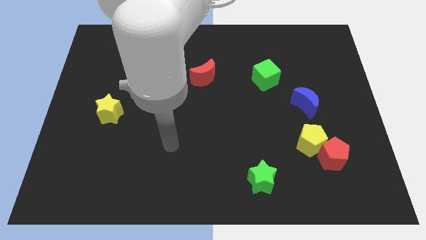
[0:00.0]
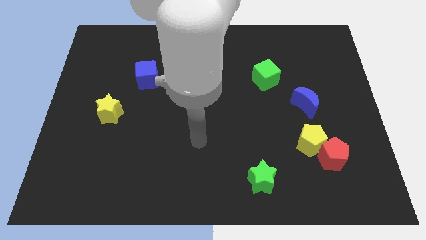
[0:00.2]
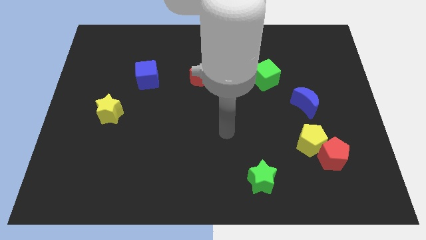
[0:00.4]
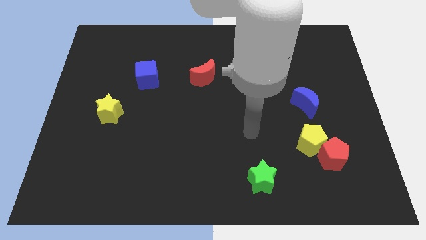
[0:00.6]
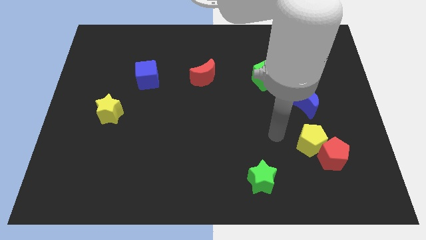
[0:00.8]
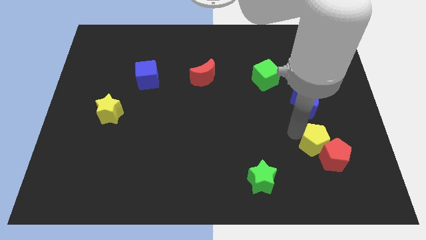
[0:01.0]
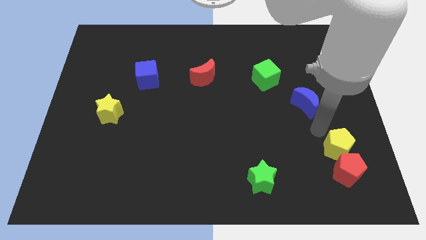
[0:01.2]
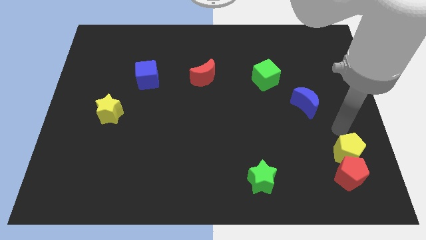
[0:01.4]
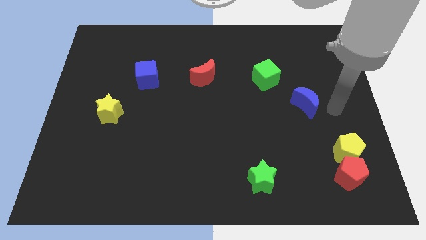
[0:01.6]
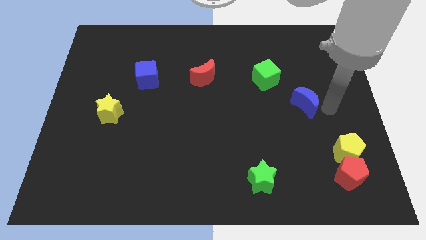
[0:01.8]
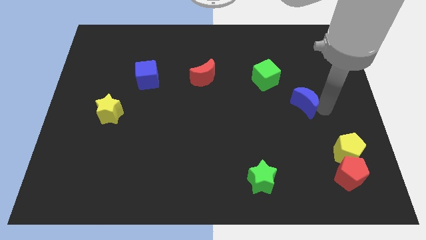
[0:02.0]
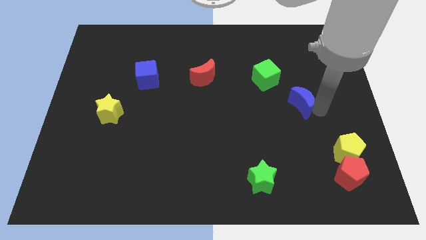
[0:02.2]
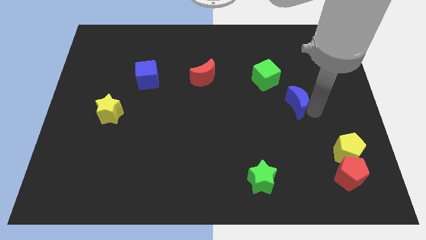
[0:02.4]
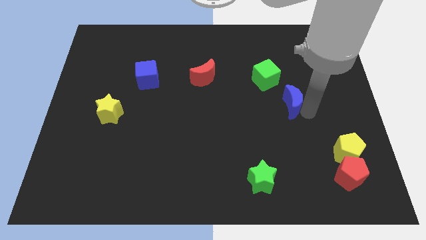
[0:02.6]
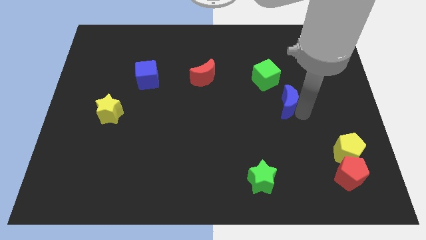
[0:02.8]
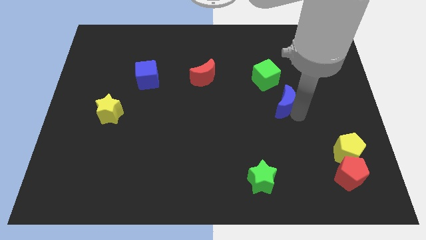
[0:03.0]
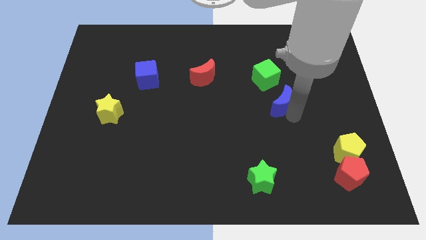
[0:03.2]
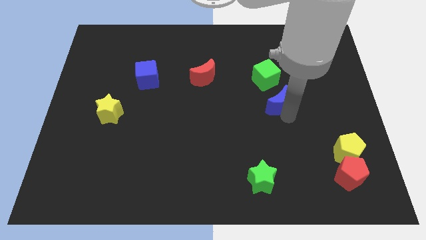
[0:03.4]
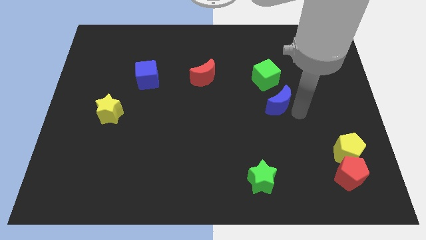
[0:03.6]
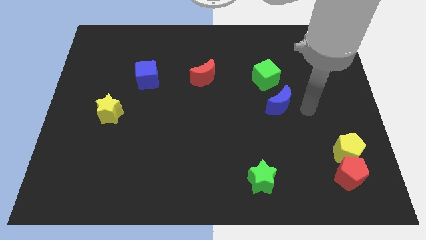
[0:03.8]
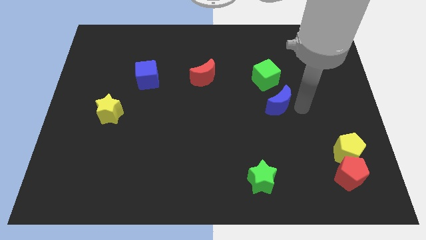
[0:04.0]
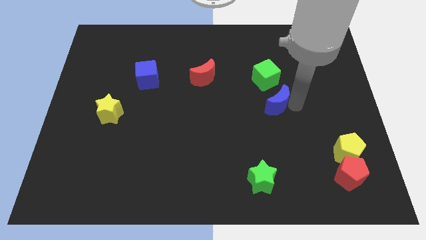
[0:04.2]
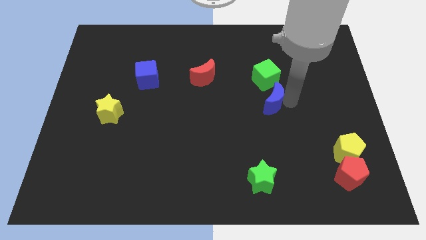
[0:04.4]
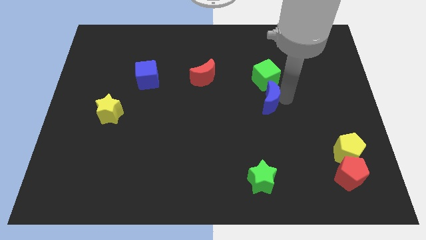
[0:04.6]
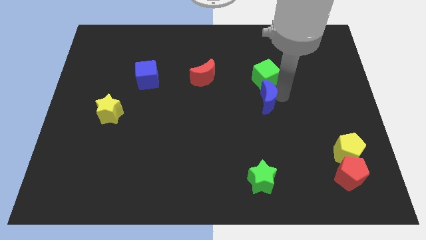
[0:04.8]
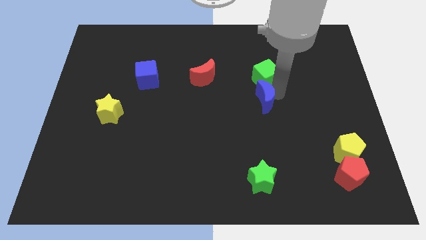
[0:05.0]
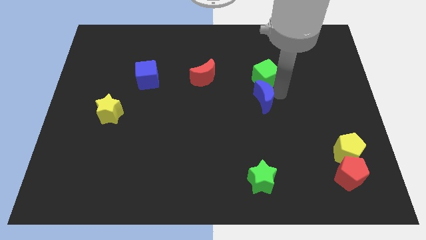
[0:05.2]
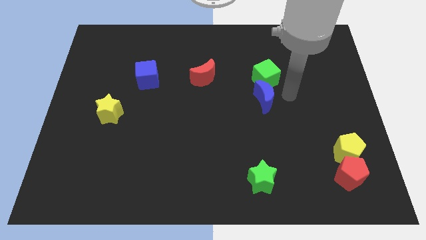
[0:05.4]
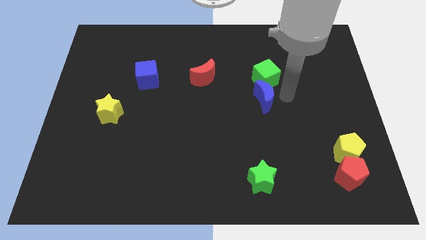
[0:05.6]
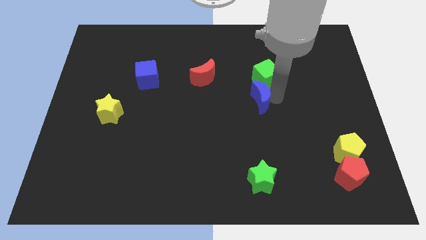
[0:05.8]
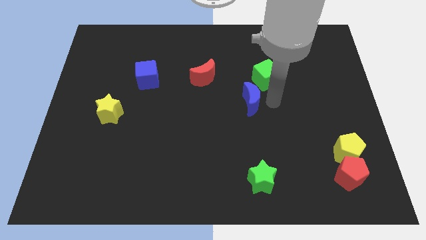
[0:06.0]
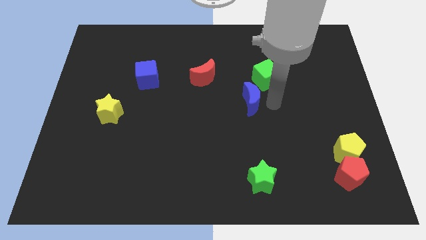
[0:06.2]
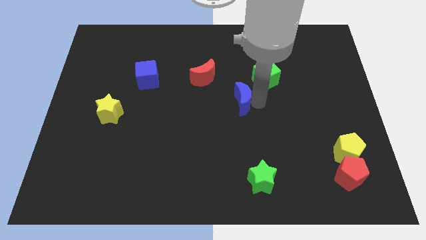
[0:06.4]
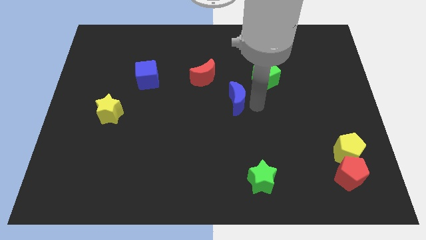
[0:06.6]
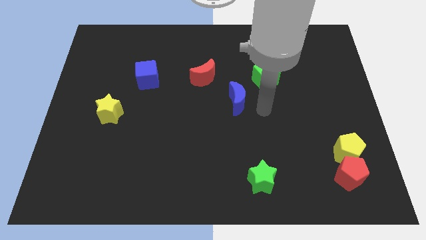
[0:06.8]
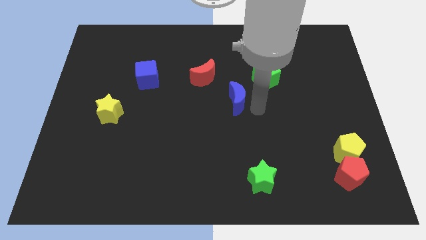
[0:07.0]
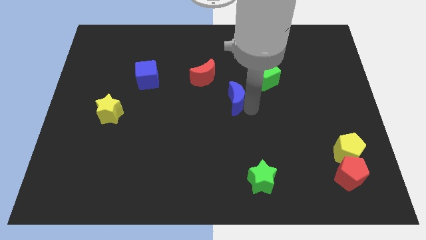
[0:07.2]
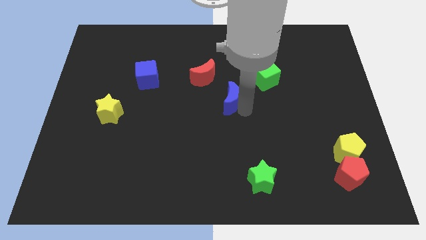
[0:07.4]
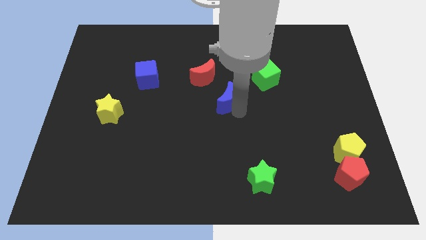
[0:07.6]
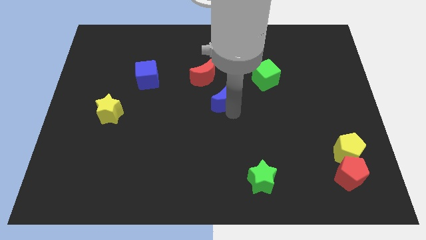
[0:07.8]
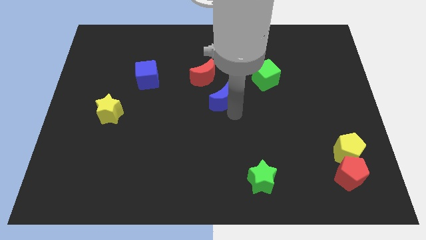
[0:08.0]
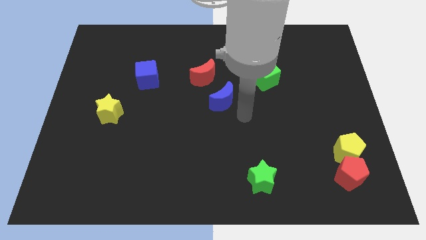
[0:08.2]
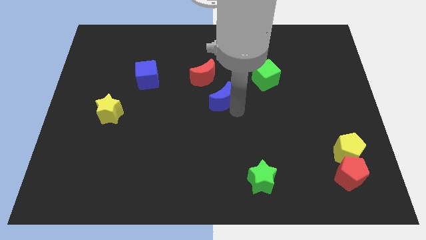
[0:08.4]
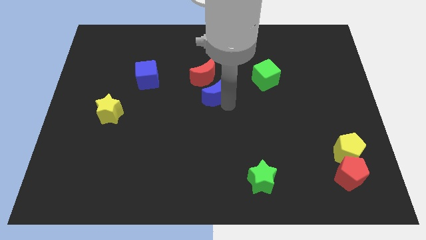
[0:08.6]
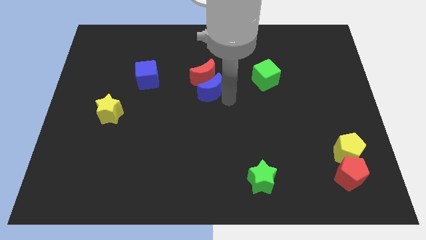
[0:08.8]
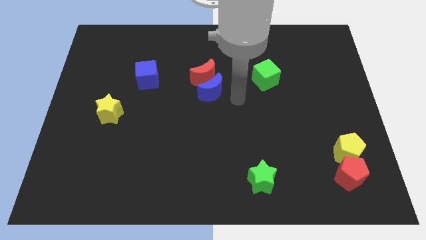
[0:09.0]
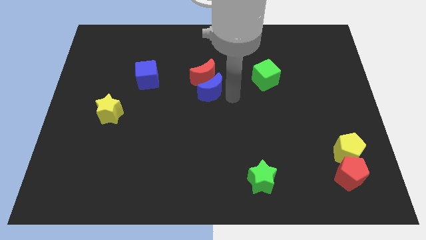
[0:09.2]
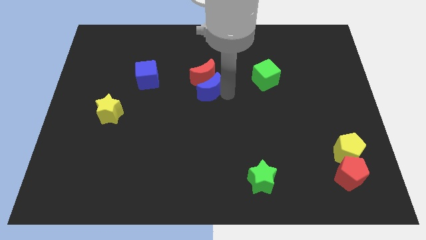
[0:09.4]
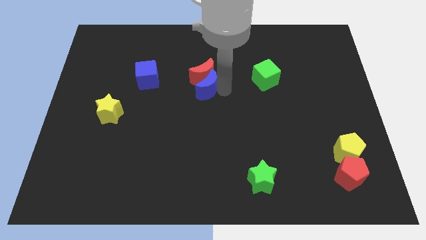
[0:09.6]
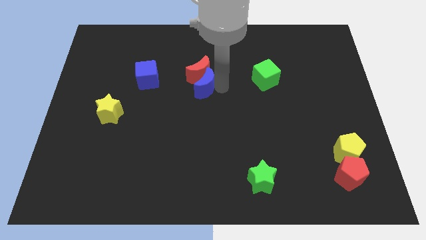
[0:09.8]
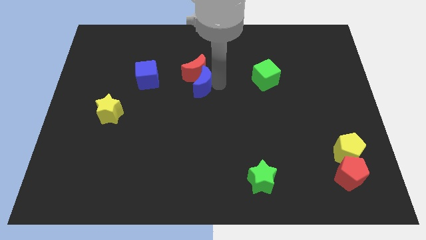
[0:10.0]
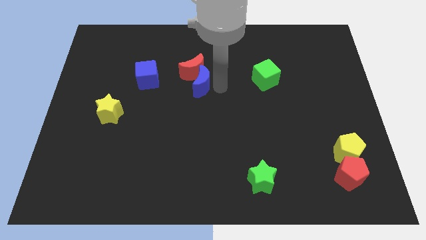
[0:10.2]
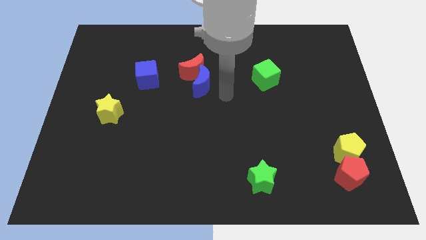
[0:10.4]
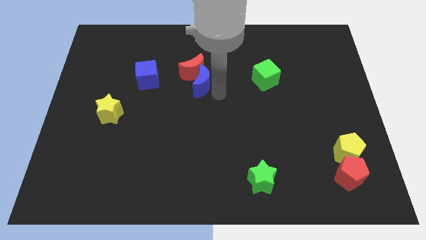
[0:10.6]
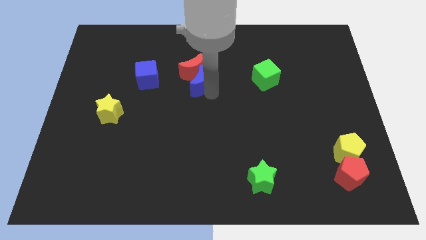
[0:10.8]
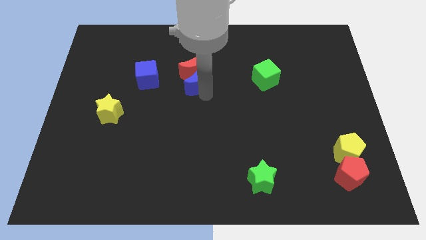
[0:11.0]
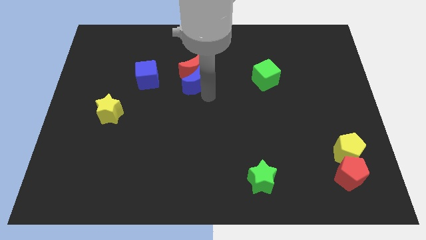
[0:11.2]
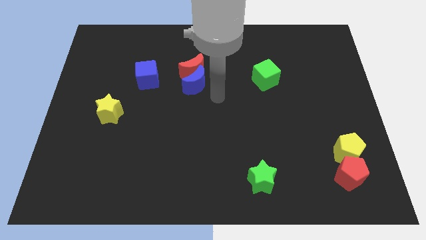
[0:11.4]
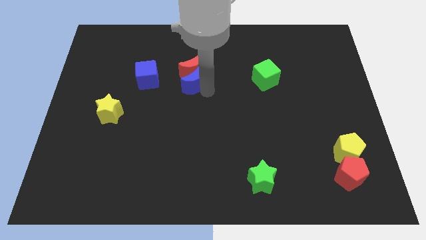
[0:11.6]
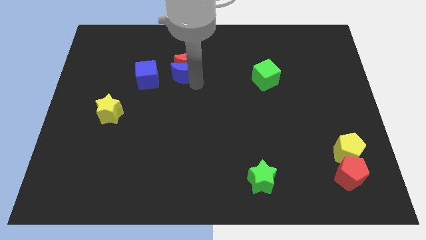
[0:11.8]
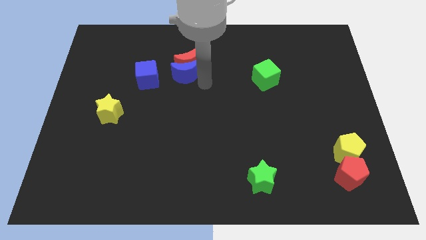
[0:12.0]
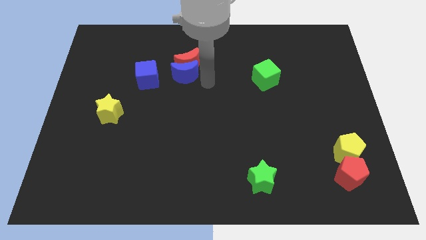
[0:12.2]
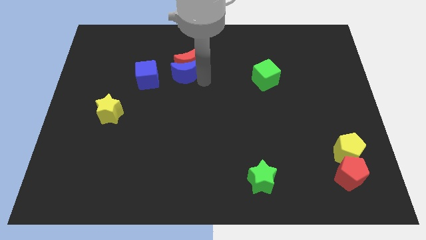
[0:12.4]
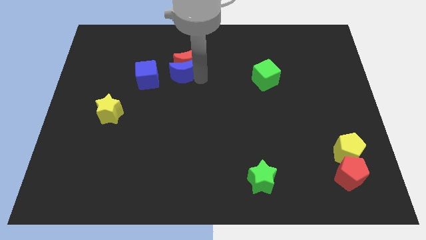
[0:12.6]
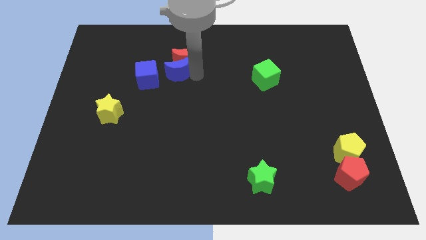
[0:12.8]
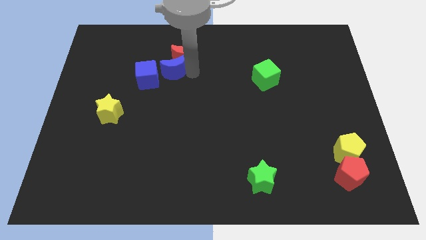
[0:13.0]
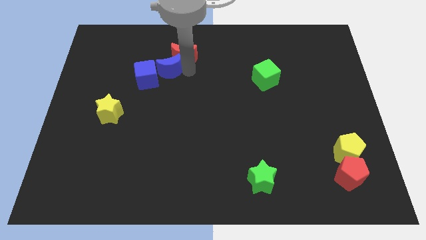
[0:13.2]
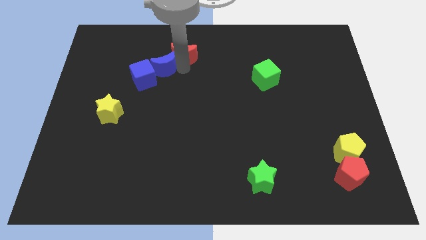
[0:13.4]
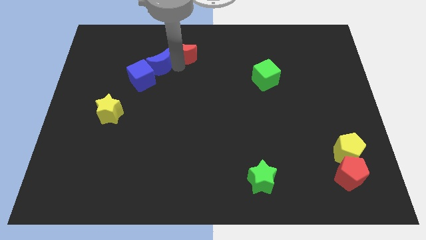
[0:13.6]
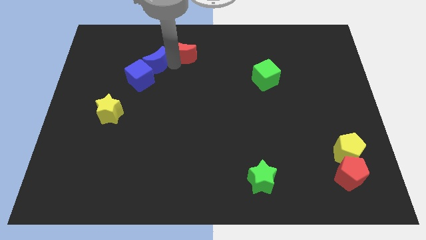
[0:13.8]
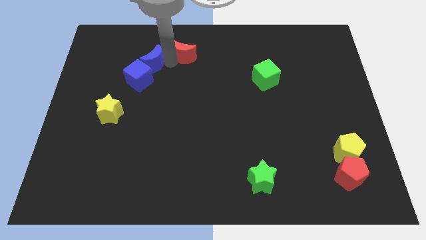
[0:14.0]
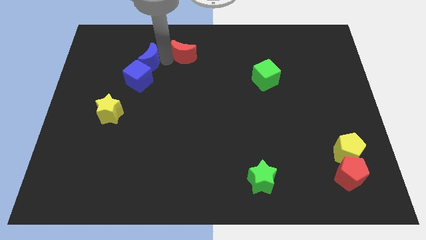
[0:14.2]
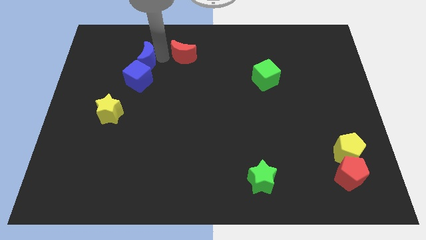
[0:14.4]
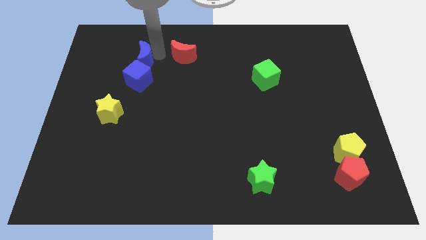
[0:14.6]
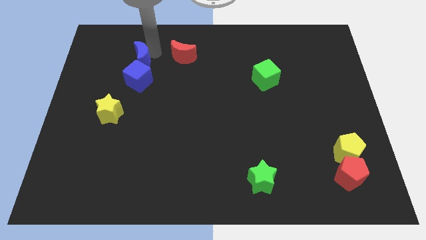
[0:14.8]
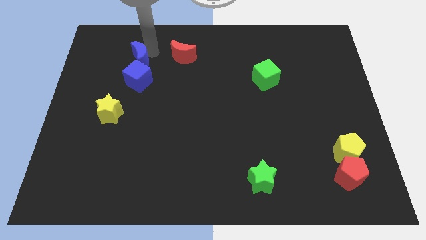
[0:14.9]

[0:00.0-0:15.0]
push the blue moon to the top left of the blue cube
